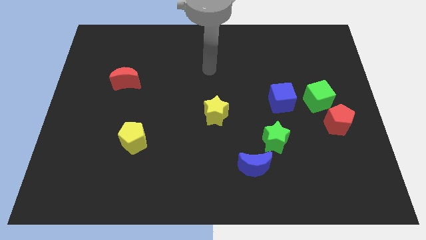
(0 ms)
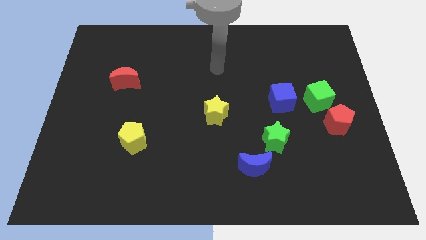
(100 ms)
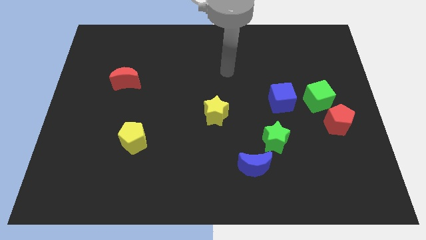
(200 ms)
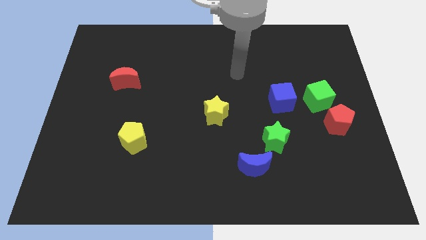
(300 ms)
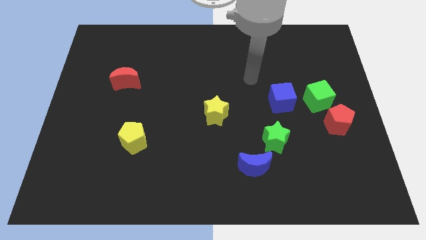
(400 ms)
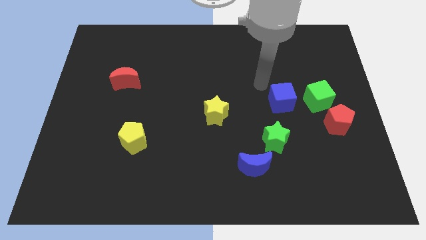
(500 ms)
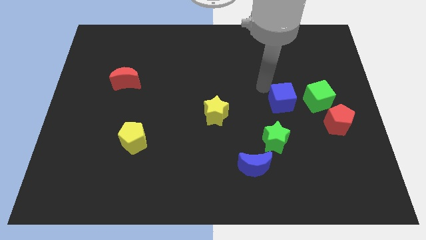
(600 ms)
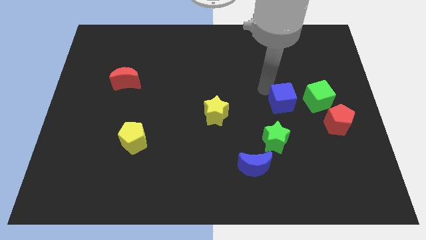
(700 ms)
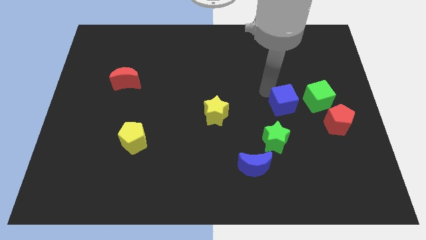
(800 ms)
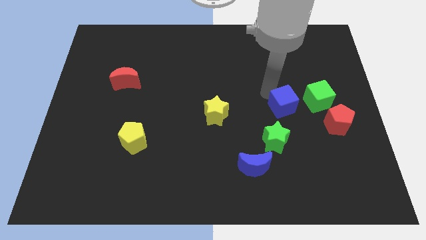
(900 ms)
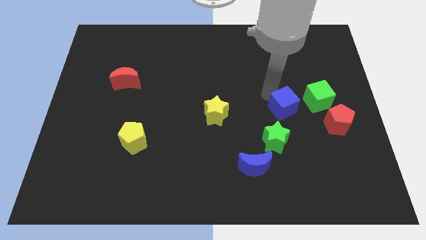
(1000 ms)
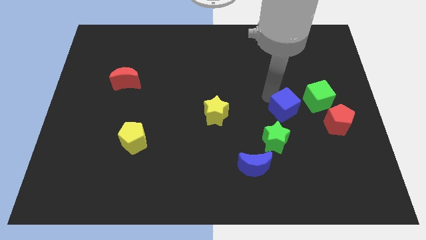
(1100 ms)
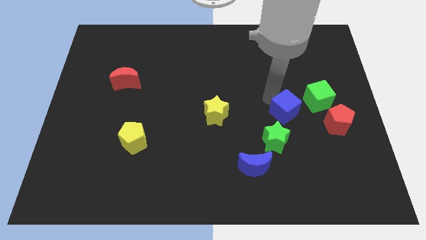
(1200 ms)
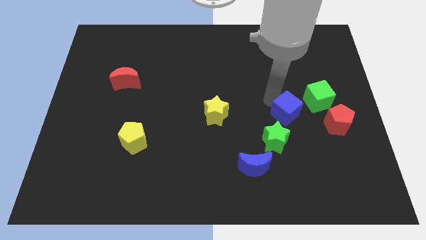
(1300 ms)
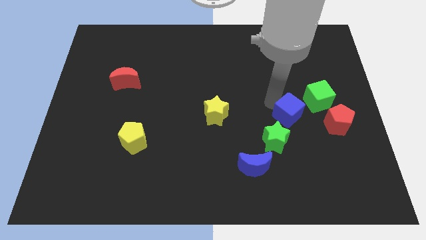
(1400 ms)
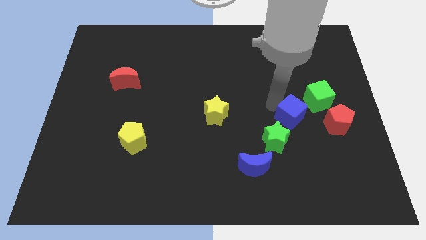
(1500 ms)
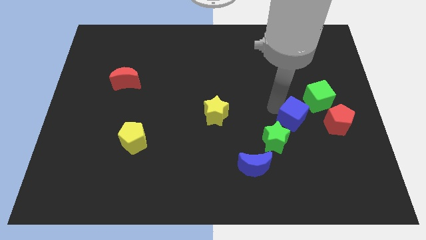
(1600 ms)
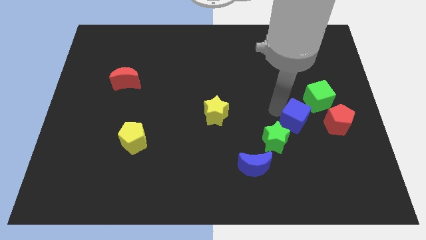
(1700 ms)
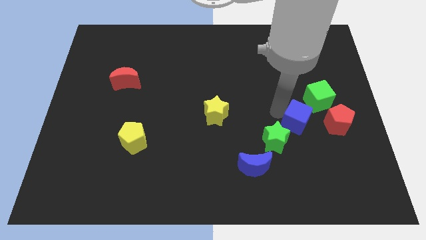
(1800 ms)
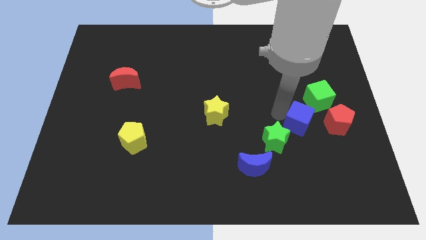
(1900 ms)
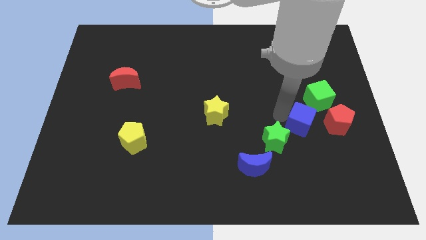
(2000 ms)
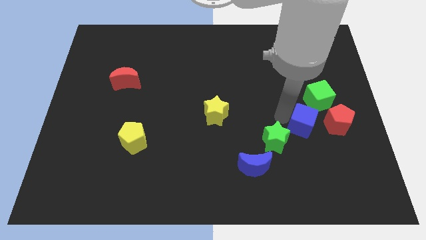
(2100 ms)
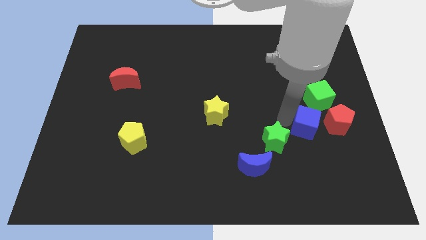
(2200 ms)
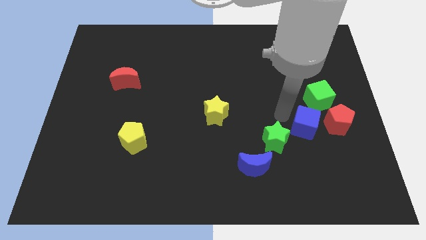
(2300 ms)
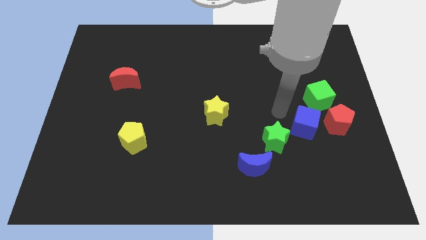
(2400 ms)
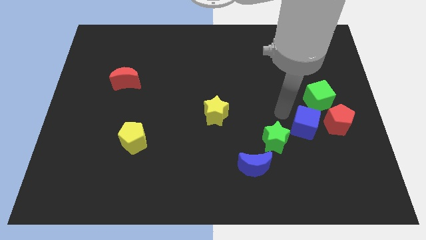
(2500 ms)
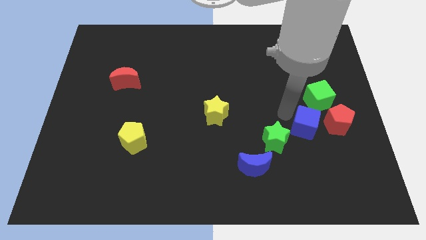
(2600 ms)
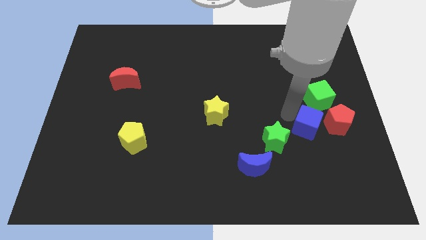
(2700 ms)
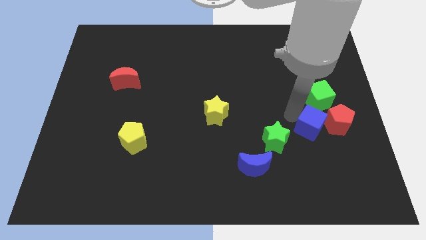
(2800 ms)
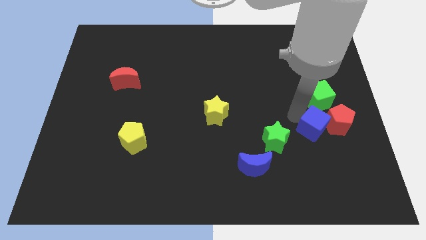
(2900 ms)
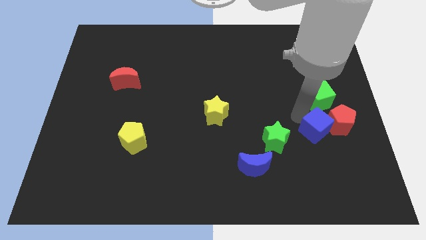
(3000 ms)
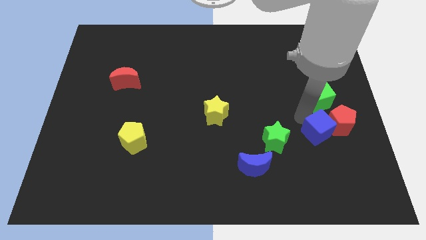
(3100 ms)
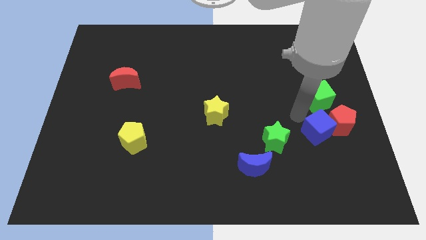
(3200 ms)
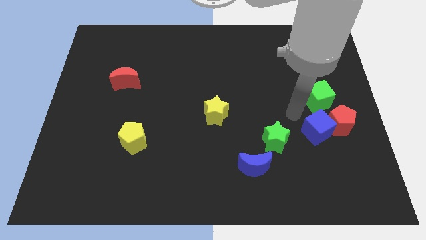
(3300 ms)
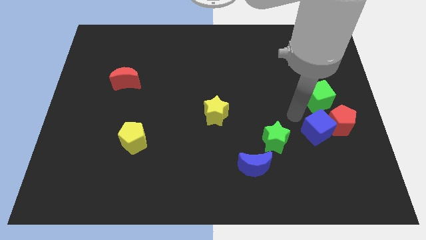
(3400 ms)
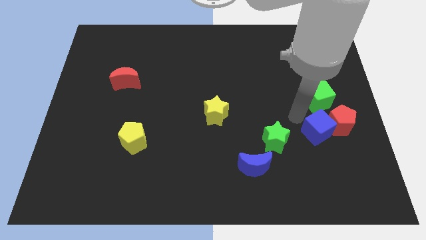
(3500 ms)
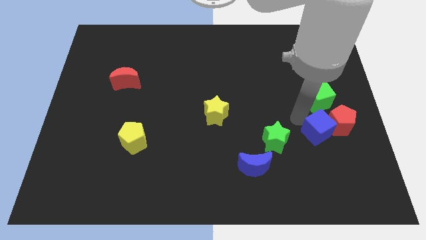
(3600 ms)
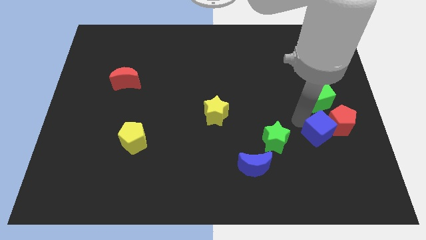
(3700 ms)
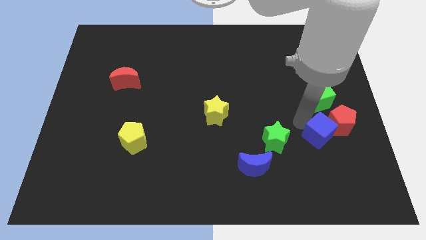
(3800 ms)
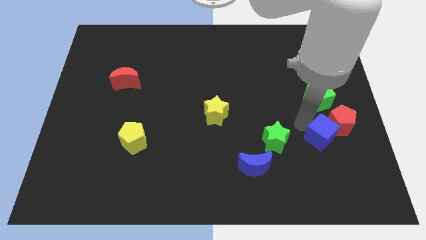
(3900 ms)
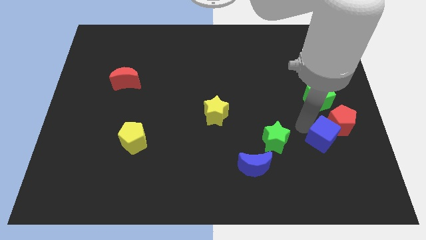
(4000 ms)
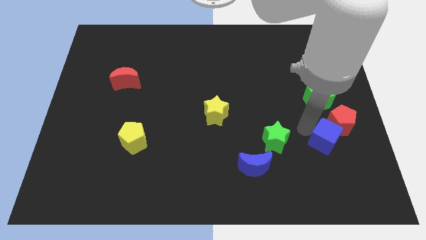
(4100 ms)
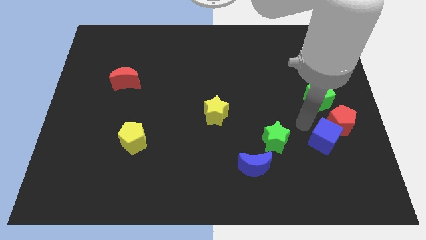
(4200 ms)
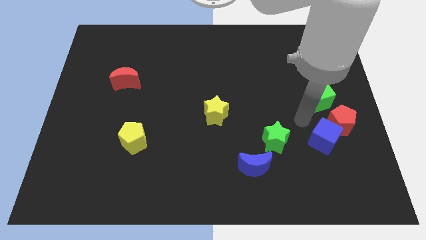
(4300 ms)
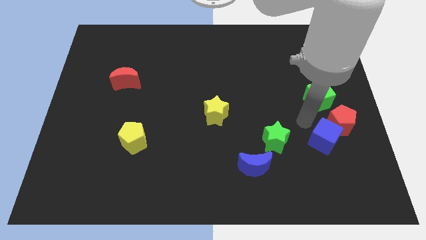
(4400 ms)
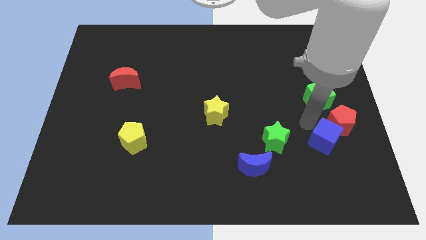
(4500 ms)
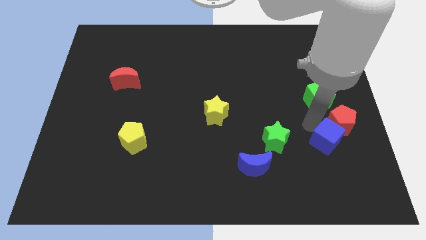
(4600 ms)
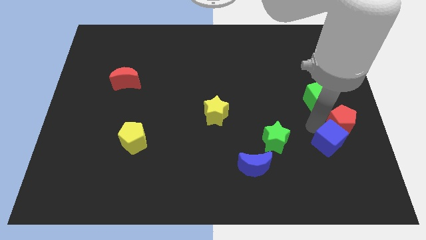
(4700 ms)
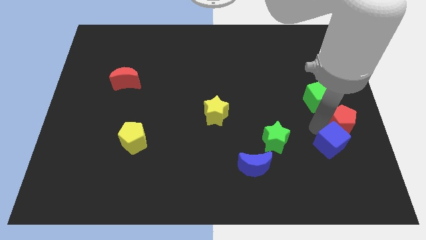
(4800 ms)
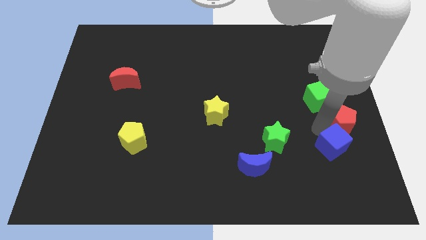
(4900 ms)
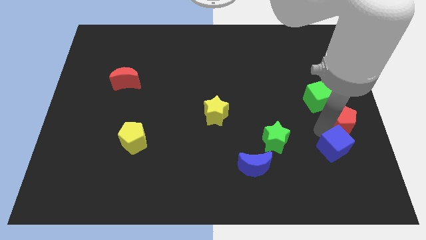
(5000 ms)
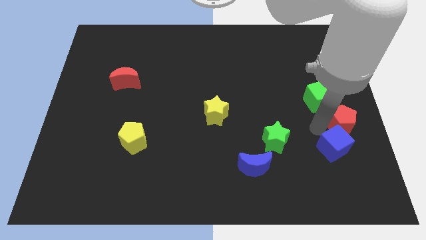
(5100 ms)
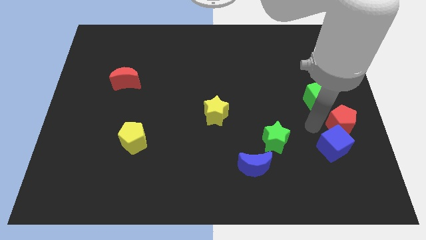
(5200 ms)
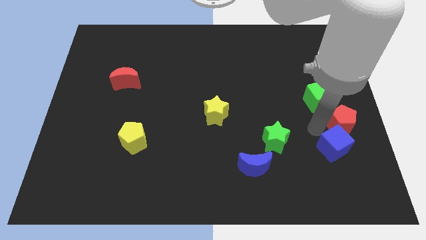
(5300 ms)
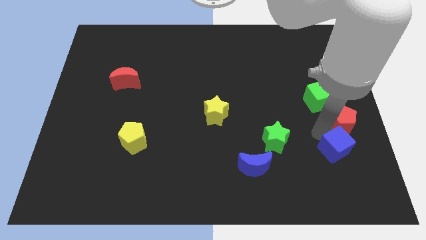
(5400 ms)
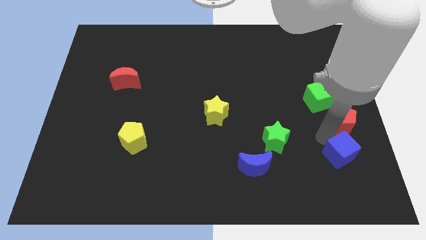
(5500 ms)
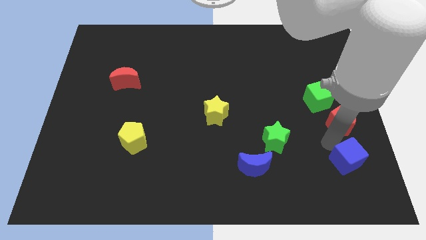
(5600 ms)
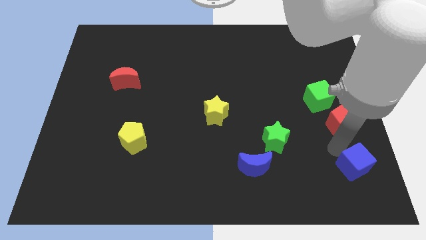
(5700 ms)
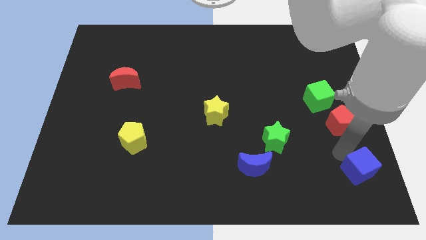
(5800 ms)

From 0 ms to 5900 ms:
put the blue cube to the bottom right of the board
